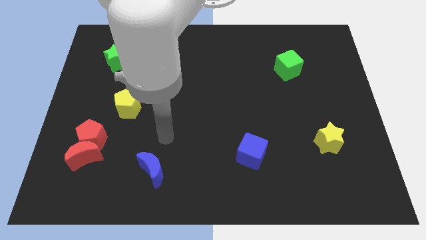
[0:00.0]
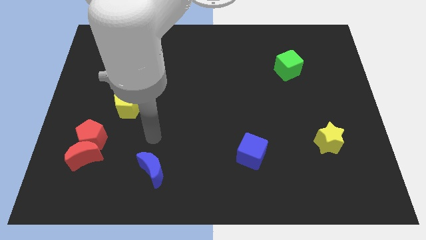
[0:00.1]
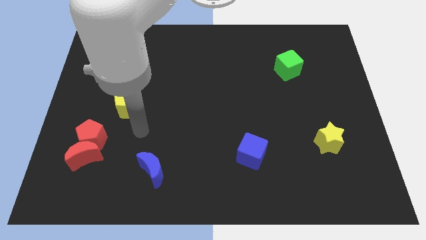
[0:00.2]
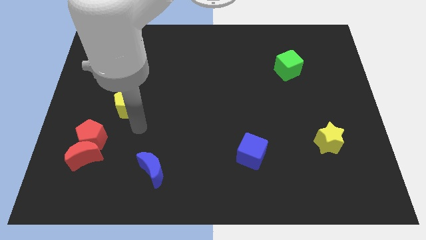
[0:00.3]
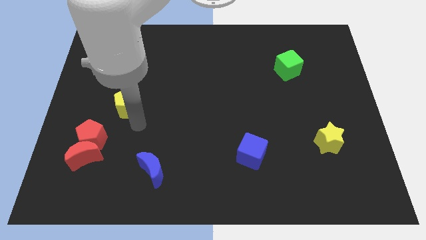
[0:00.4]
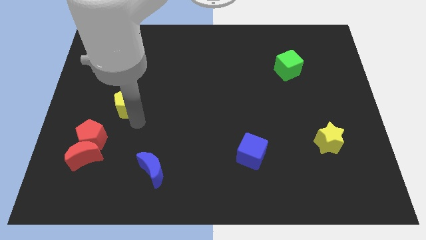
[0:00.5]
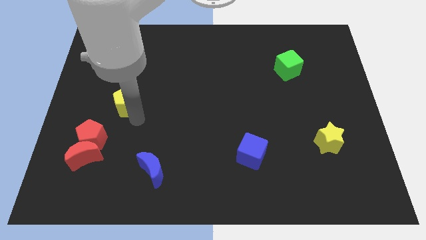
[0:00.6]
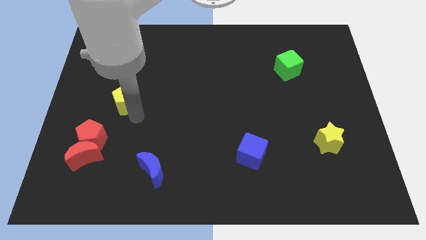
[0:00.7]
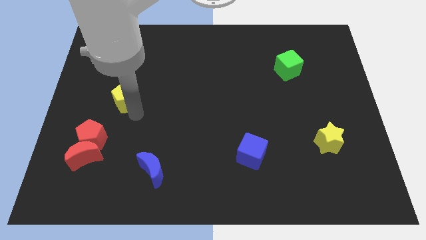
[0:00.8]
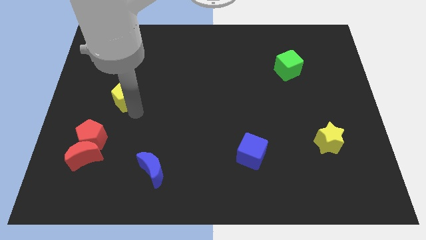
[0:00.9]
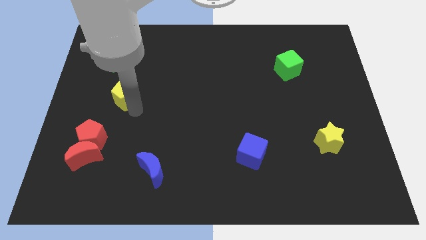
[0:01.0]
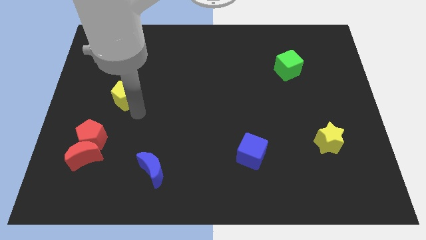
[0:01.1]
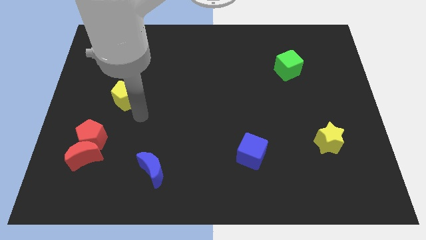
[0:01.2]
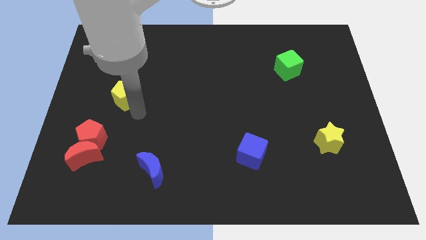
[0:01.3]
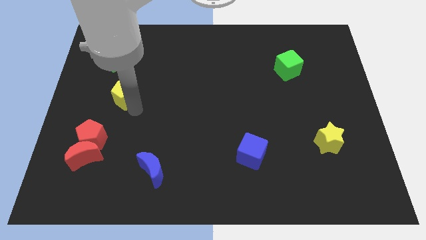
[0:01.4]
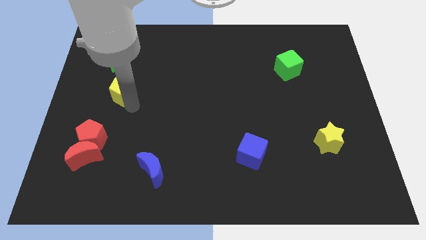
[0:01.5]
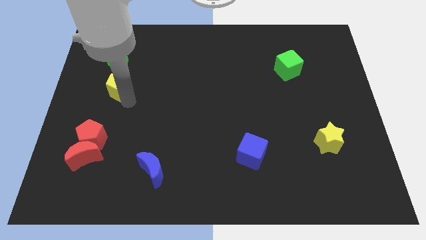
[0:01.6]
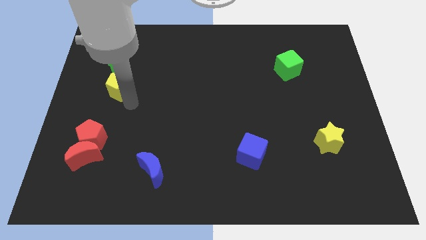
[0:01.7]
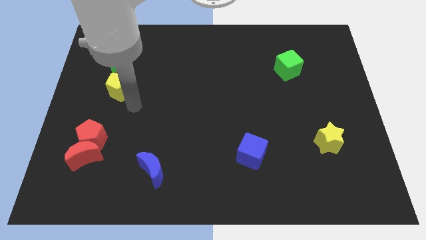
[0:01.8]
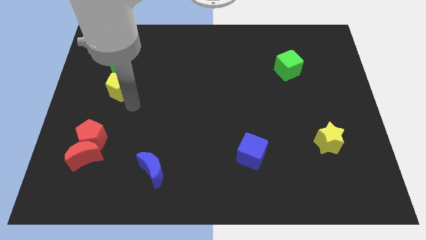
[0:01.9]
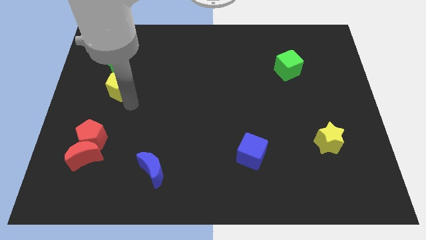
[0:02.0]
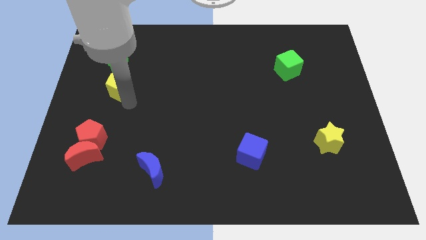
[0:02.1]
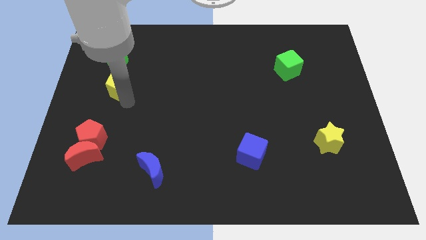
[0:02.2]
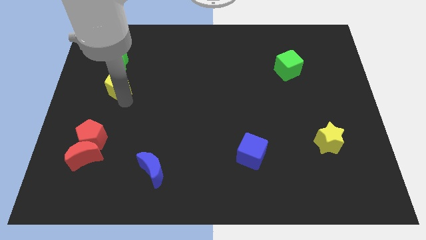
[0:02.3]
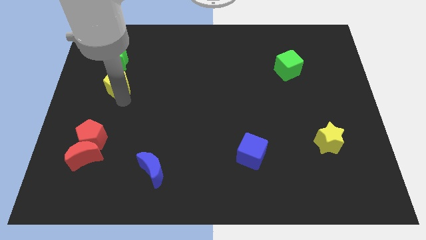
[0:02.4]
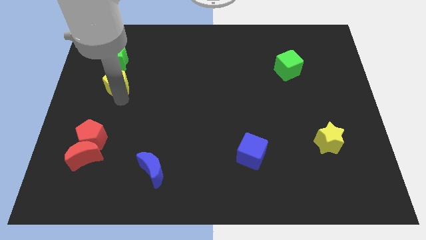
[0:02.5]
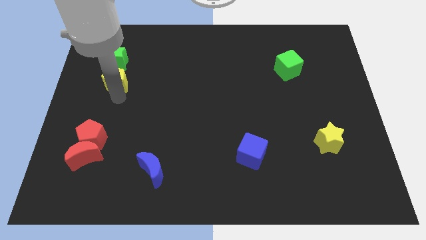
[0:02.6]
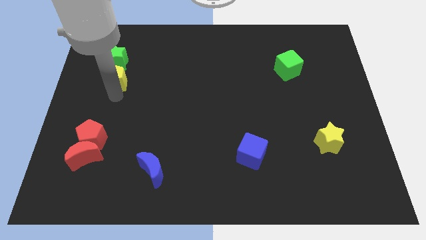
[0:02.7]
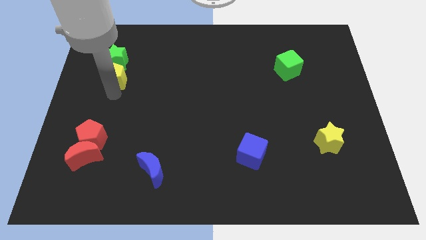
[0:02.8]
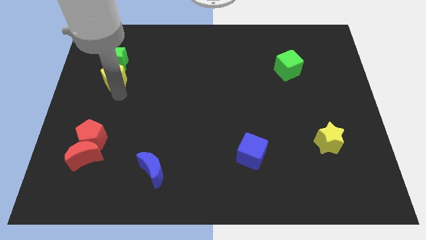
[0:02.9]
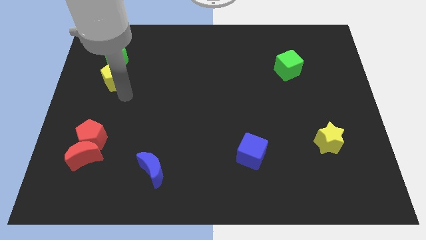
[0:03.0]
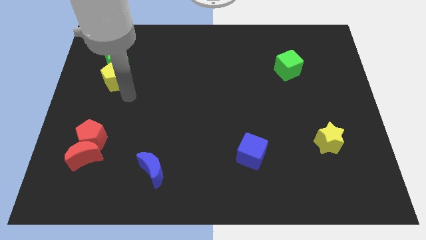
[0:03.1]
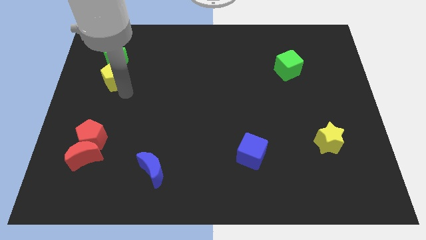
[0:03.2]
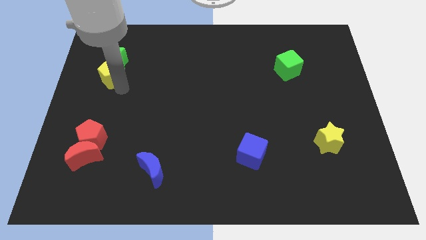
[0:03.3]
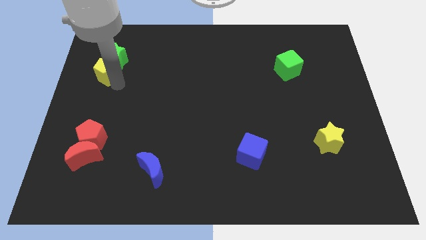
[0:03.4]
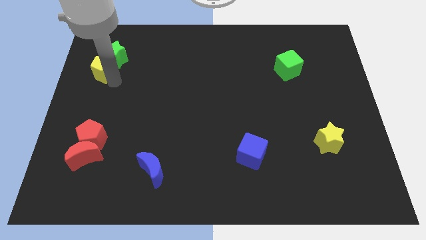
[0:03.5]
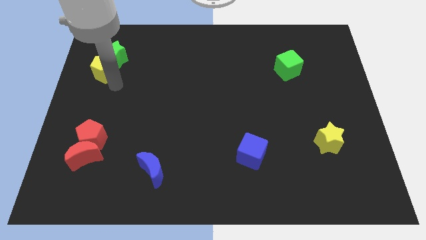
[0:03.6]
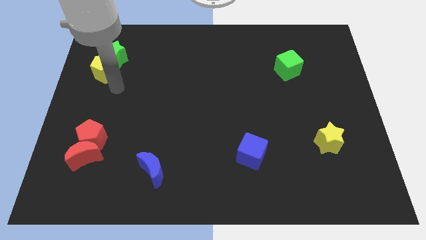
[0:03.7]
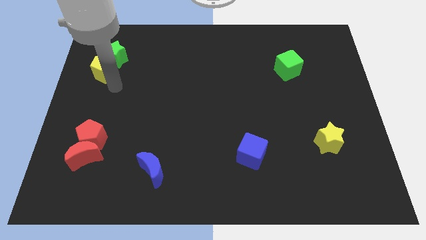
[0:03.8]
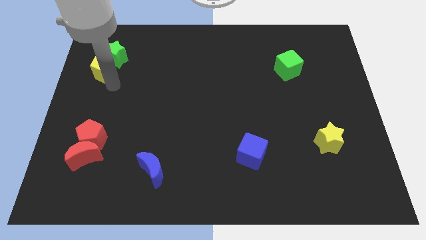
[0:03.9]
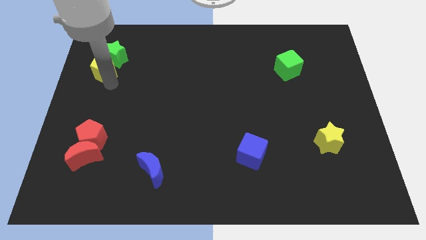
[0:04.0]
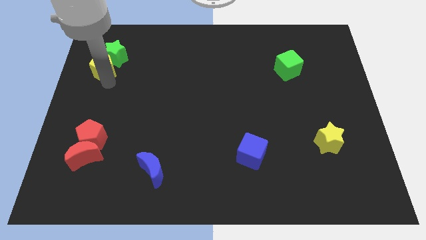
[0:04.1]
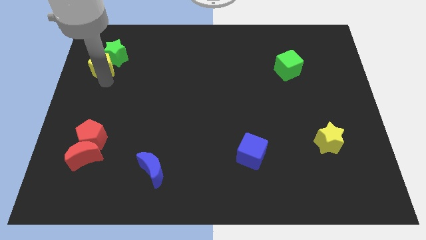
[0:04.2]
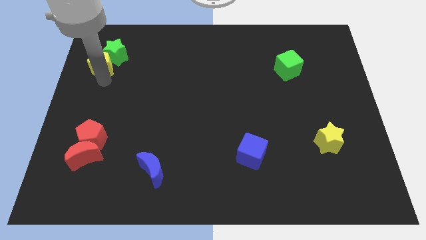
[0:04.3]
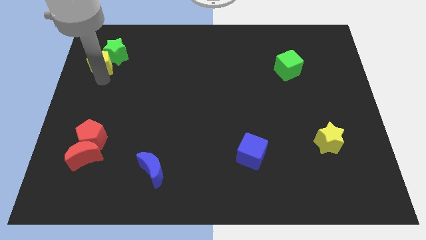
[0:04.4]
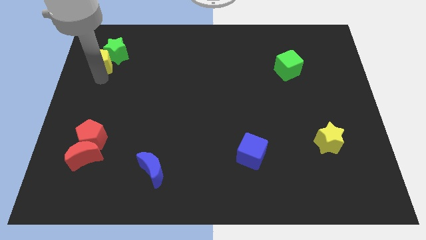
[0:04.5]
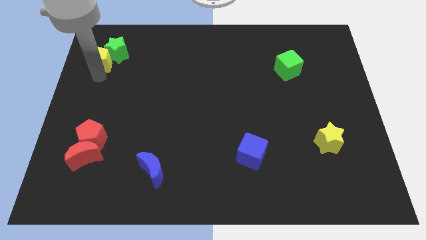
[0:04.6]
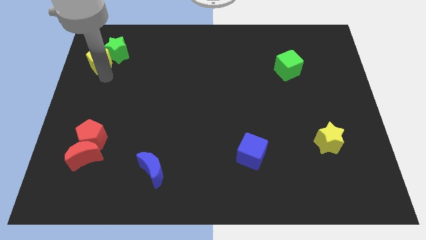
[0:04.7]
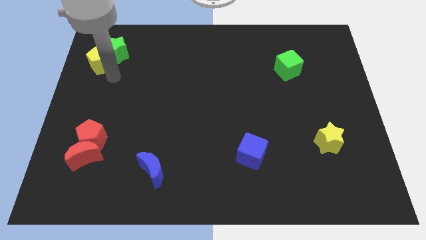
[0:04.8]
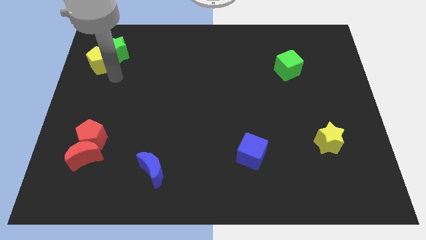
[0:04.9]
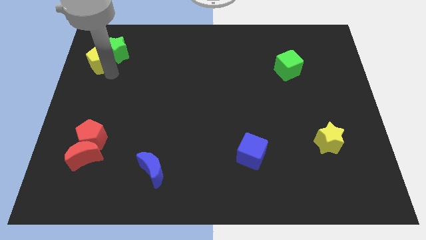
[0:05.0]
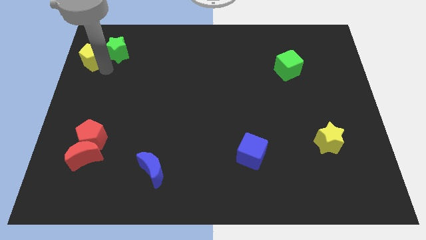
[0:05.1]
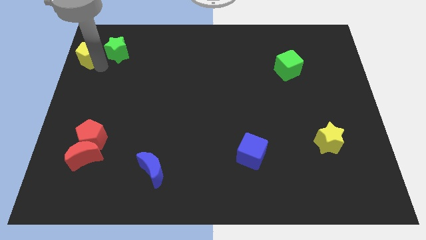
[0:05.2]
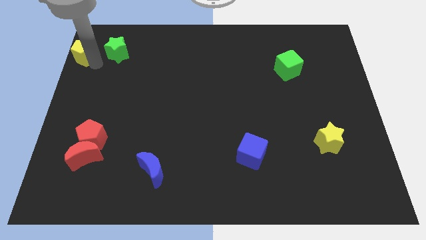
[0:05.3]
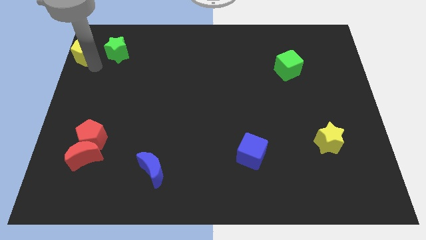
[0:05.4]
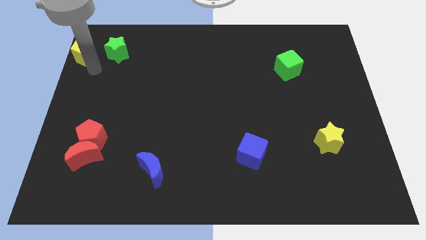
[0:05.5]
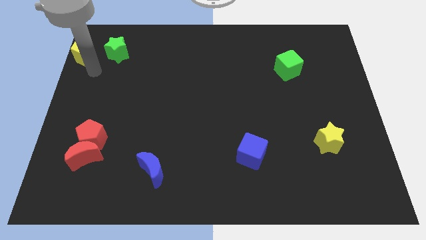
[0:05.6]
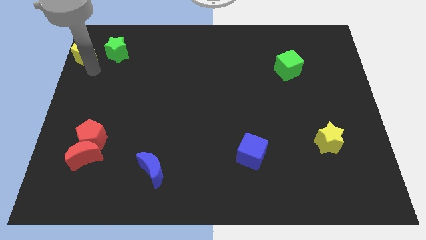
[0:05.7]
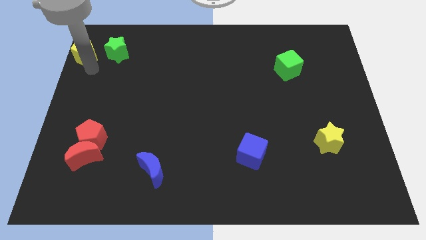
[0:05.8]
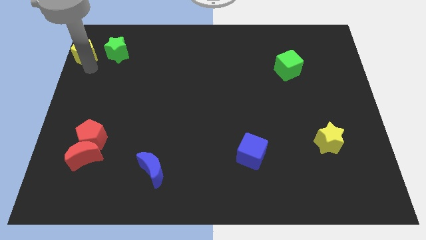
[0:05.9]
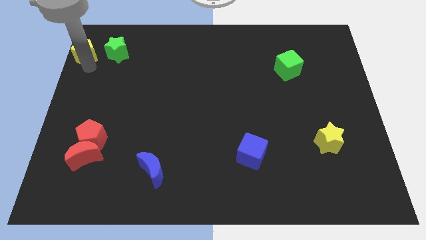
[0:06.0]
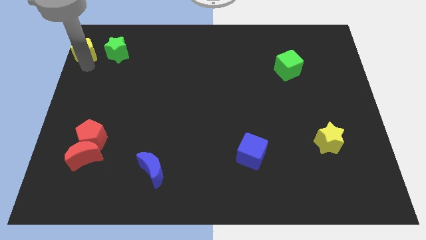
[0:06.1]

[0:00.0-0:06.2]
push the yellow pentagon to the upper left corner

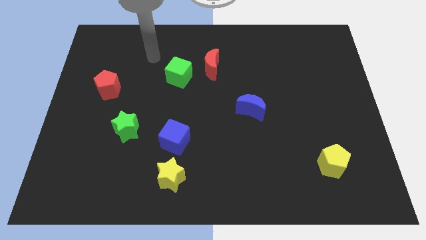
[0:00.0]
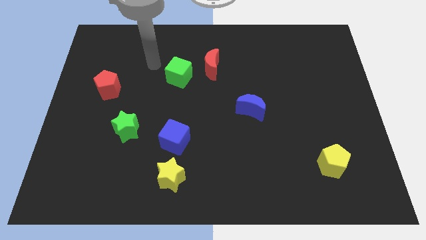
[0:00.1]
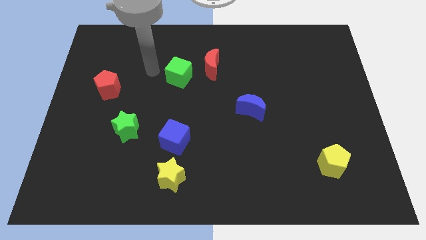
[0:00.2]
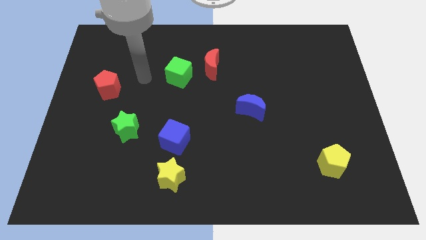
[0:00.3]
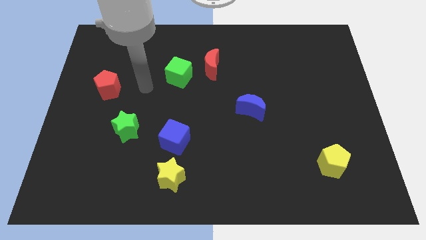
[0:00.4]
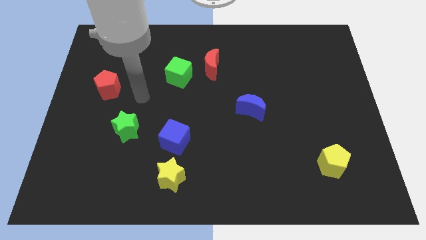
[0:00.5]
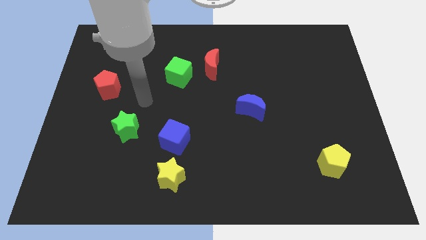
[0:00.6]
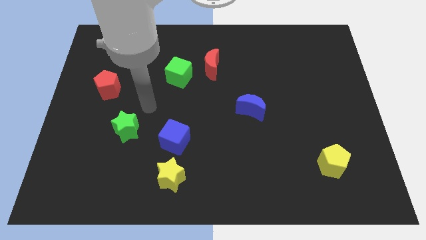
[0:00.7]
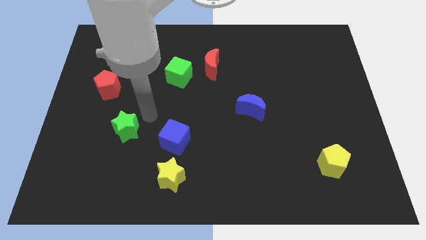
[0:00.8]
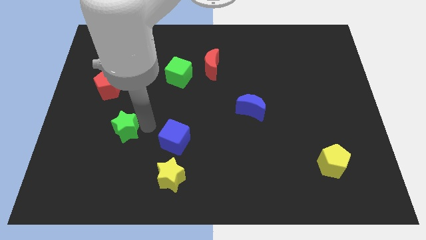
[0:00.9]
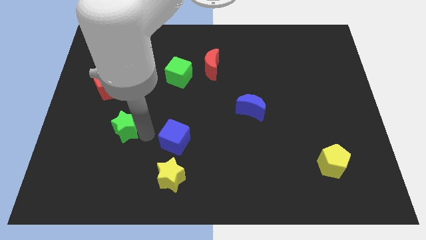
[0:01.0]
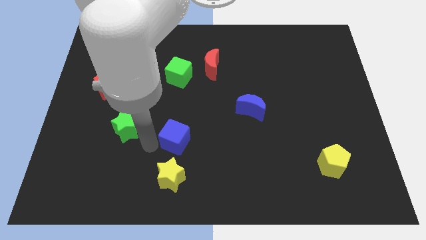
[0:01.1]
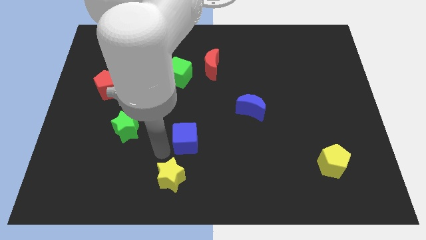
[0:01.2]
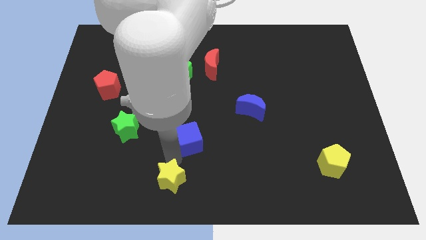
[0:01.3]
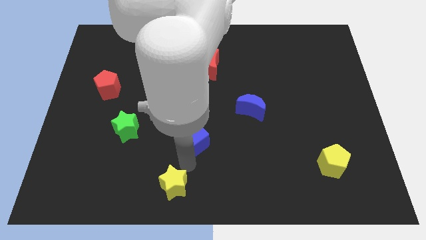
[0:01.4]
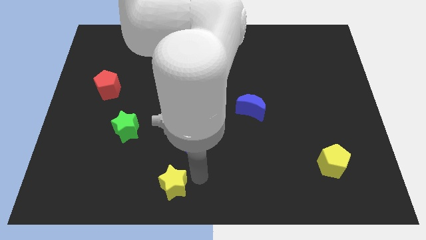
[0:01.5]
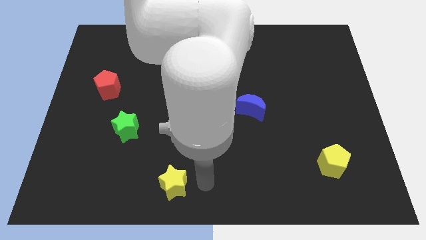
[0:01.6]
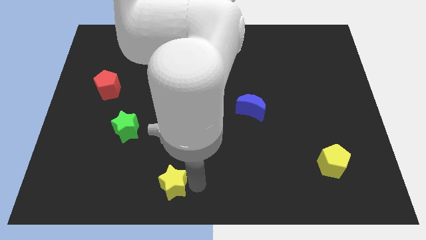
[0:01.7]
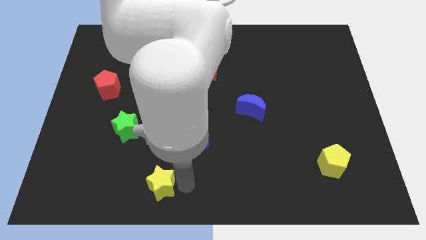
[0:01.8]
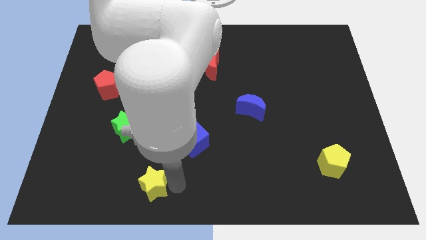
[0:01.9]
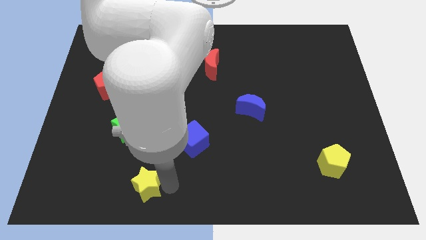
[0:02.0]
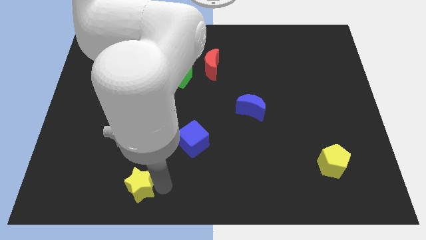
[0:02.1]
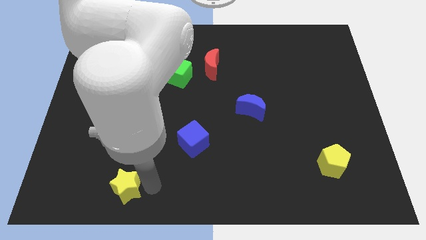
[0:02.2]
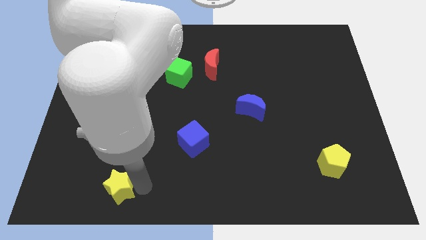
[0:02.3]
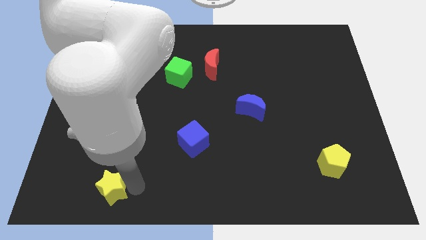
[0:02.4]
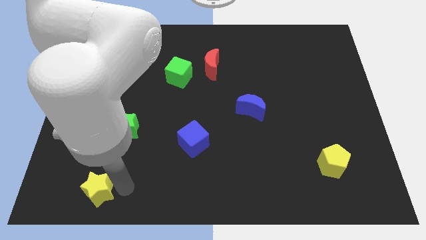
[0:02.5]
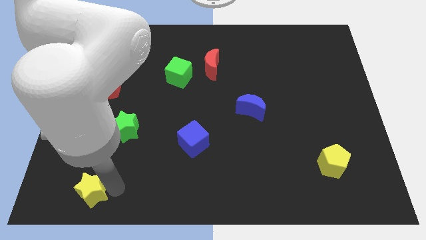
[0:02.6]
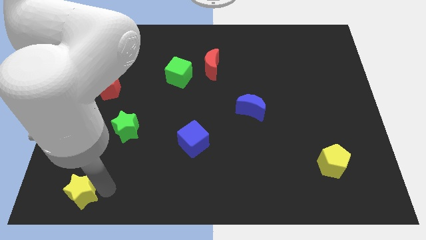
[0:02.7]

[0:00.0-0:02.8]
slide the yellow star to the bottom left corner
